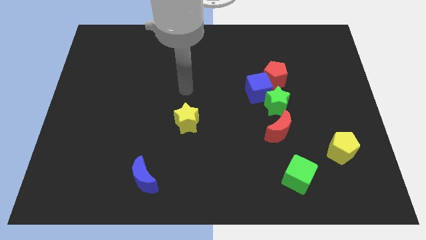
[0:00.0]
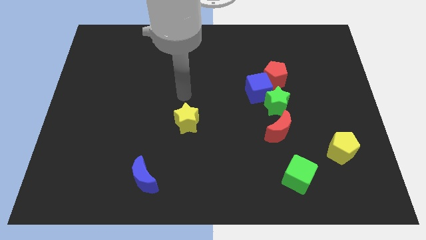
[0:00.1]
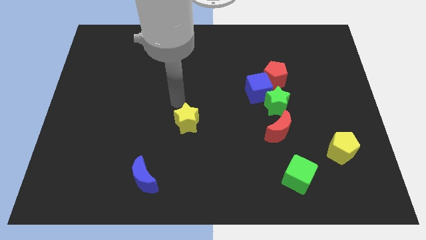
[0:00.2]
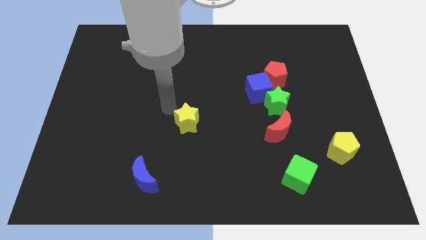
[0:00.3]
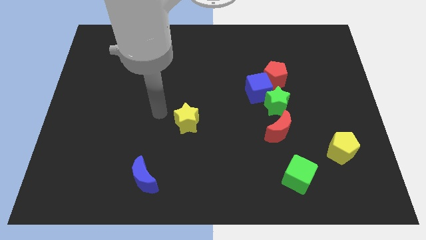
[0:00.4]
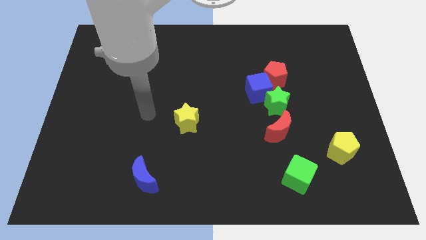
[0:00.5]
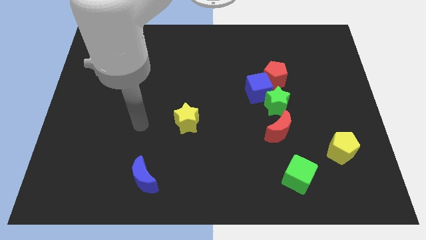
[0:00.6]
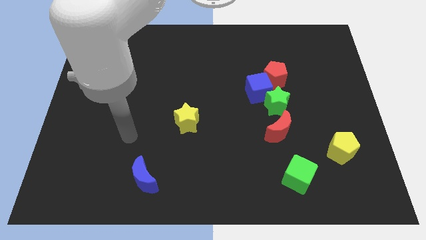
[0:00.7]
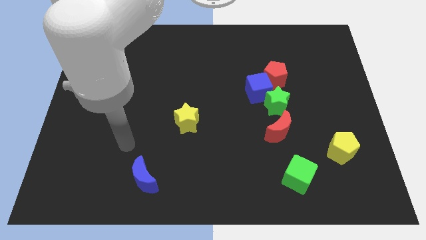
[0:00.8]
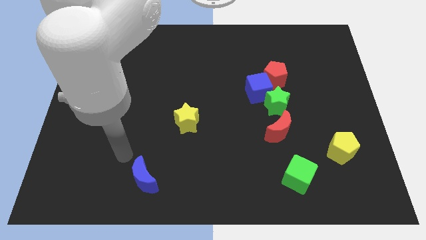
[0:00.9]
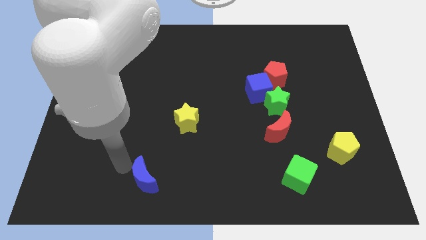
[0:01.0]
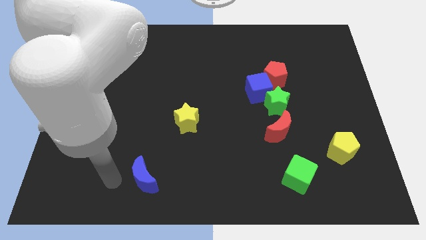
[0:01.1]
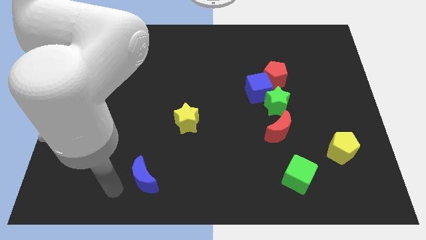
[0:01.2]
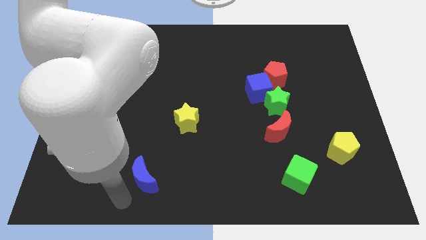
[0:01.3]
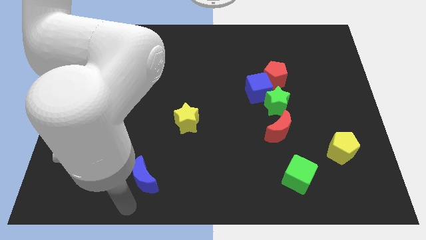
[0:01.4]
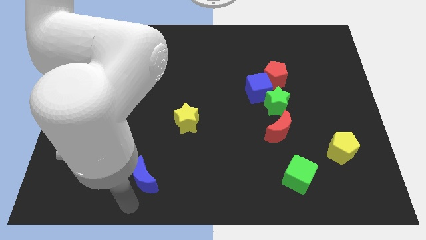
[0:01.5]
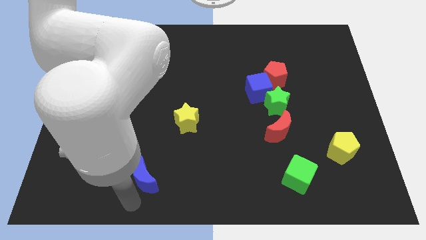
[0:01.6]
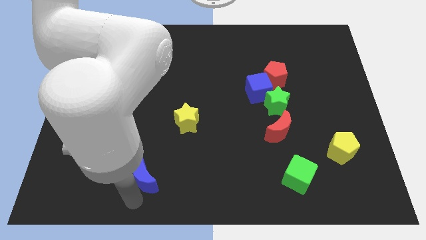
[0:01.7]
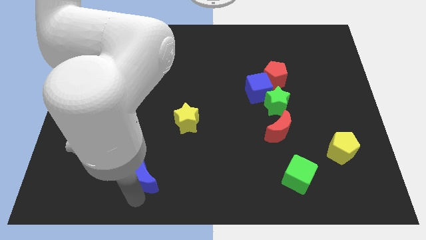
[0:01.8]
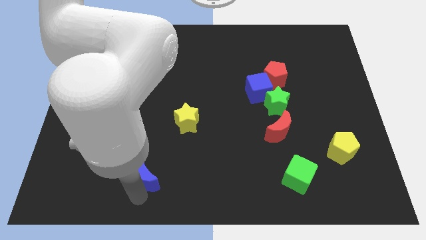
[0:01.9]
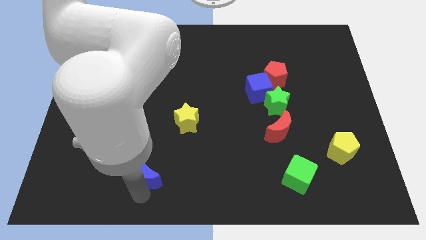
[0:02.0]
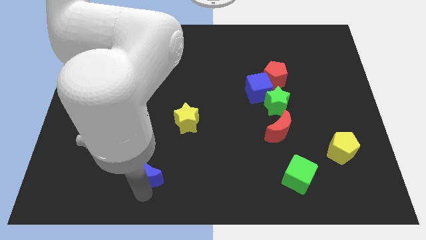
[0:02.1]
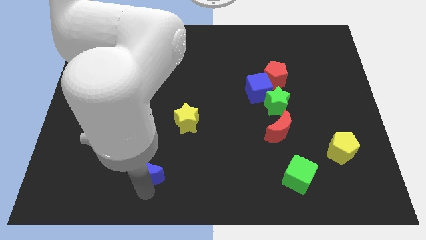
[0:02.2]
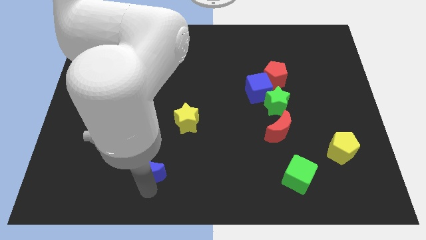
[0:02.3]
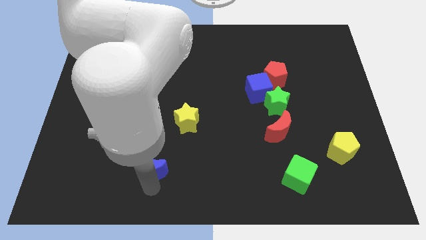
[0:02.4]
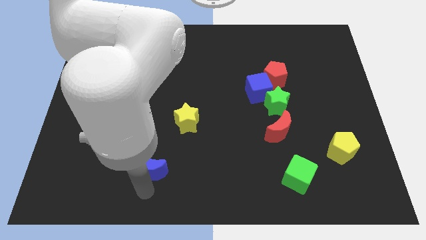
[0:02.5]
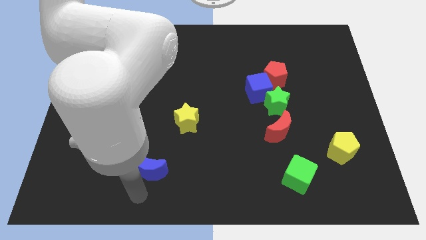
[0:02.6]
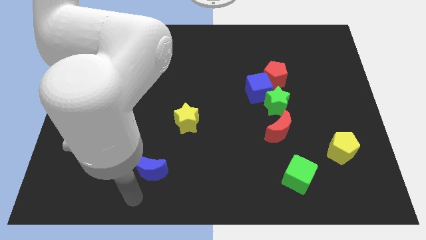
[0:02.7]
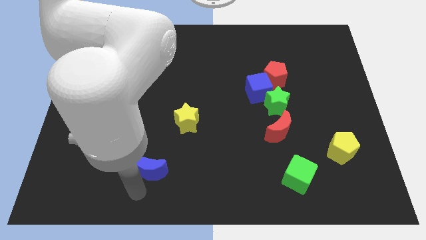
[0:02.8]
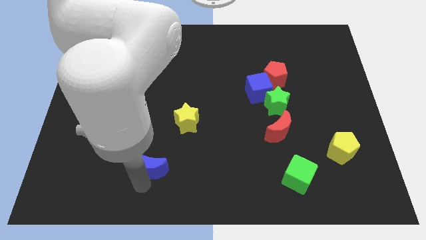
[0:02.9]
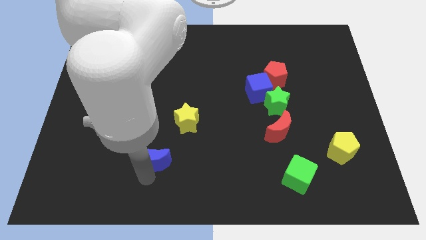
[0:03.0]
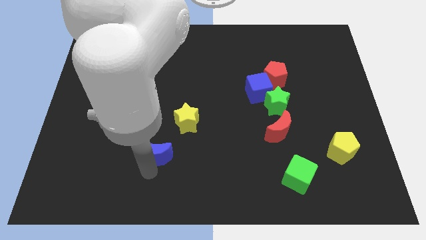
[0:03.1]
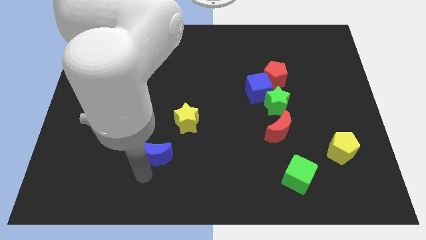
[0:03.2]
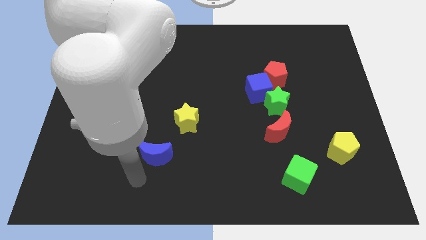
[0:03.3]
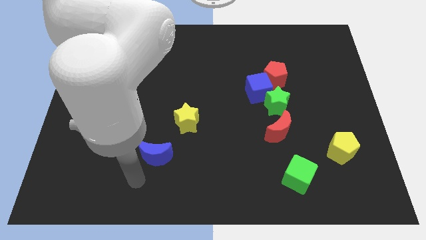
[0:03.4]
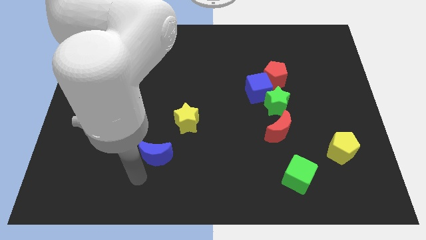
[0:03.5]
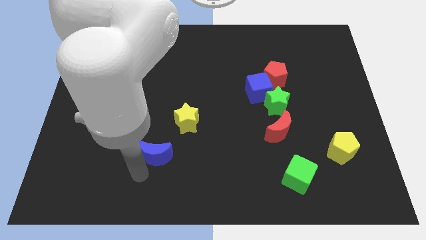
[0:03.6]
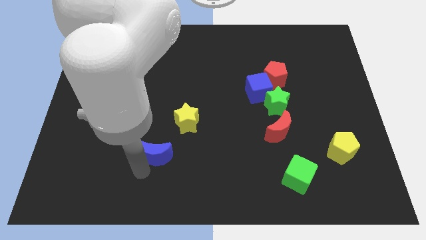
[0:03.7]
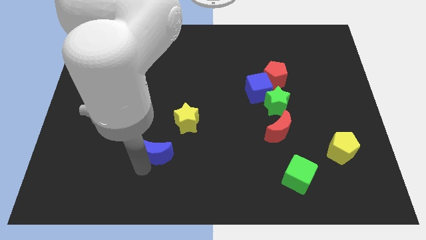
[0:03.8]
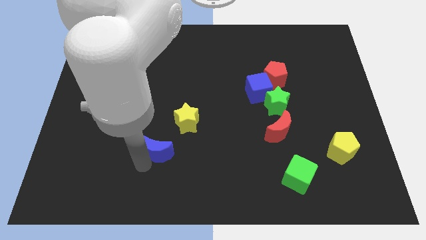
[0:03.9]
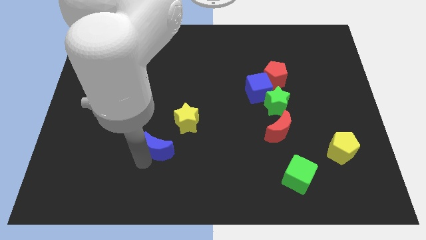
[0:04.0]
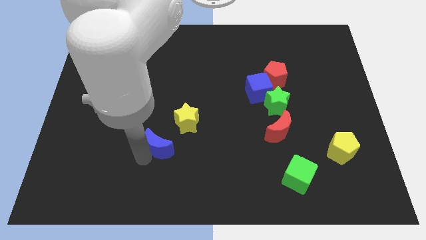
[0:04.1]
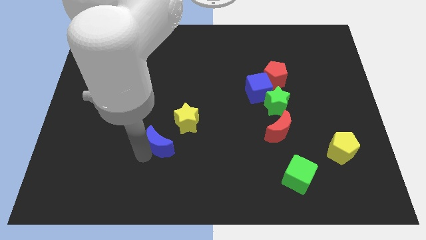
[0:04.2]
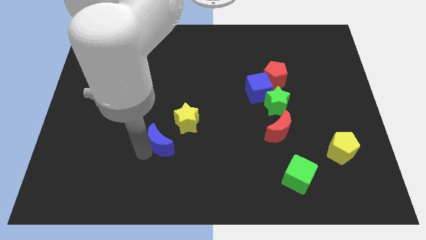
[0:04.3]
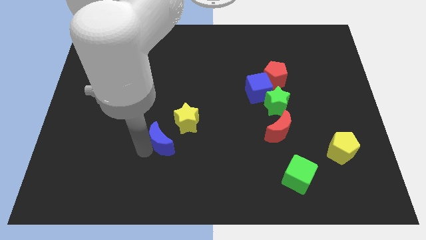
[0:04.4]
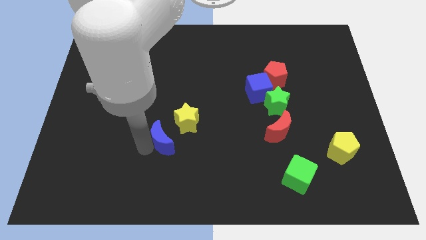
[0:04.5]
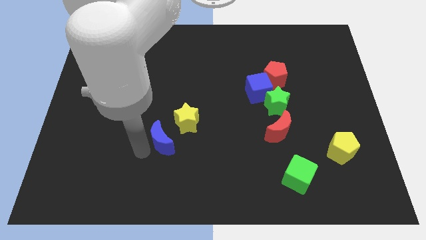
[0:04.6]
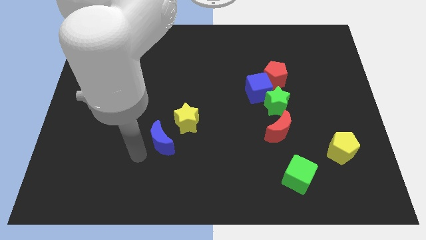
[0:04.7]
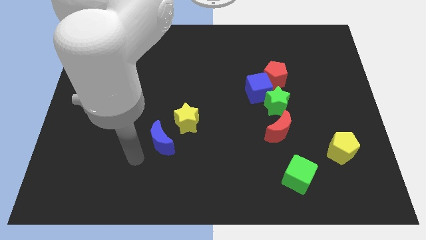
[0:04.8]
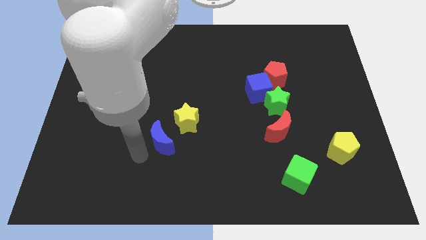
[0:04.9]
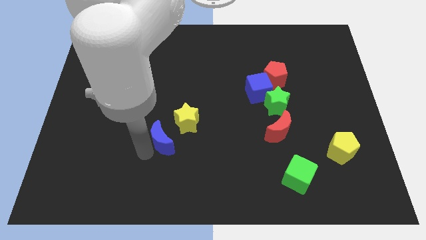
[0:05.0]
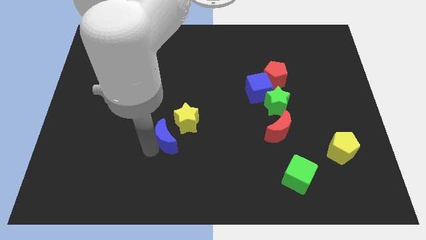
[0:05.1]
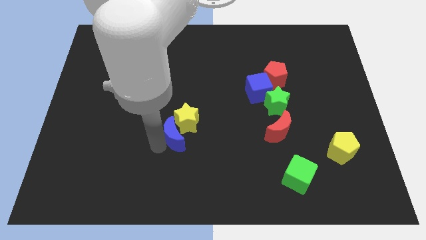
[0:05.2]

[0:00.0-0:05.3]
push the blue moon towards the yellow star
